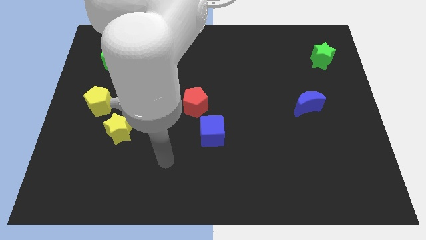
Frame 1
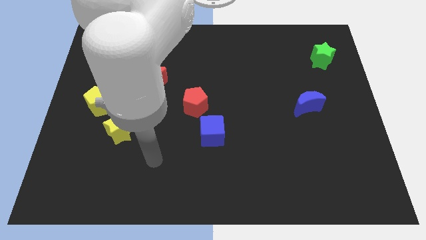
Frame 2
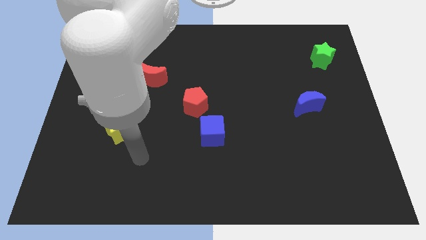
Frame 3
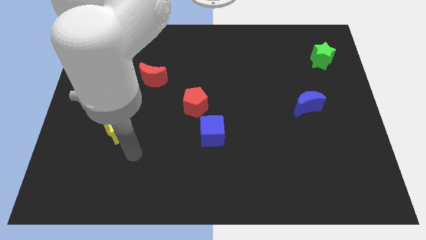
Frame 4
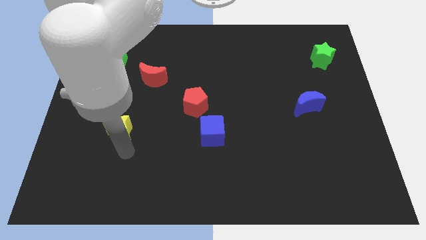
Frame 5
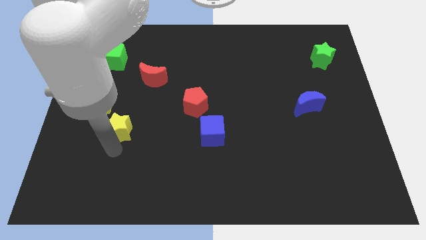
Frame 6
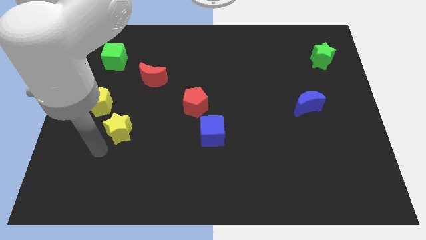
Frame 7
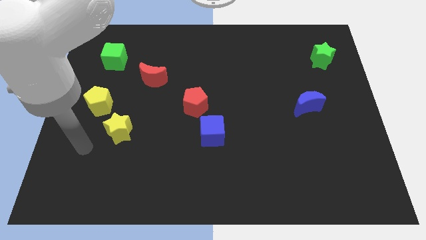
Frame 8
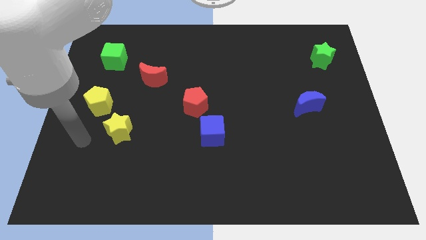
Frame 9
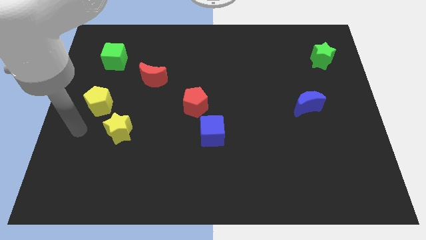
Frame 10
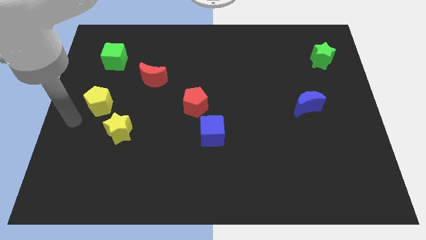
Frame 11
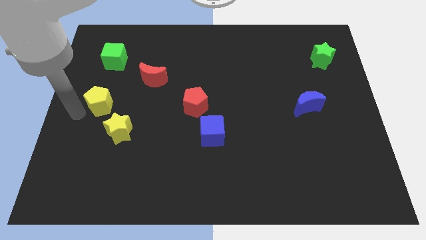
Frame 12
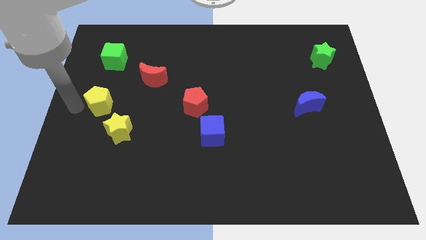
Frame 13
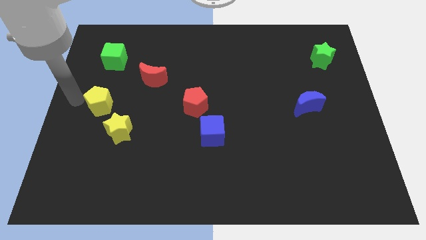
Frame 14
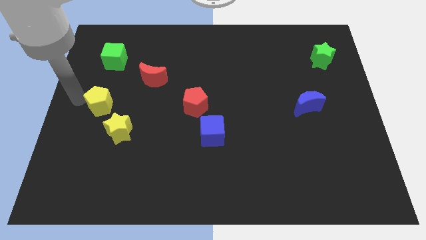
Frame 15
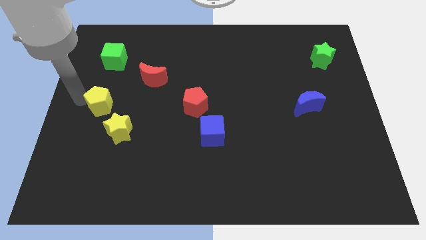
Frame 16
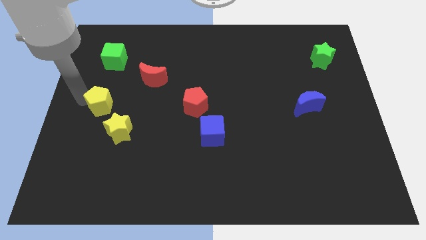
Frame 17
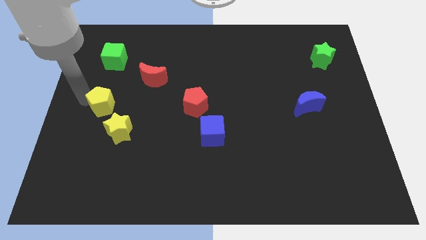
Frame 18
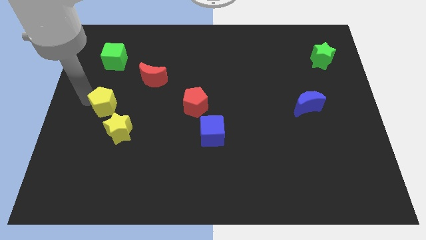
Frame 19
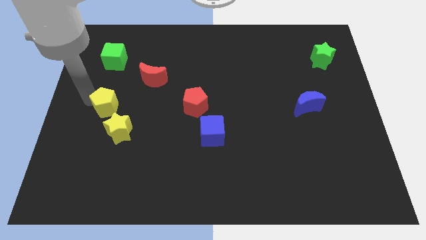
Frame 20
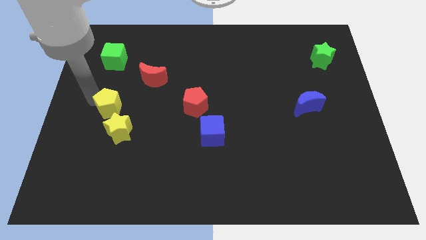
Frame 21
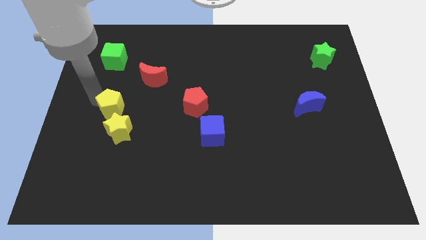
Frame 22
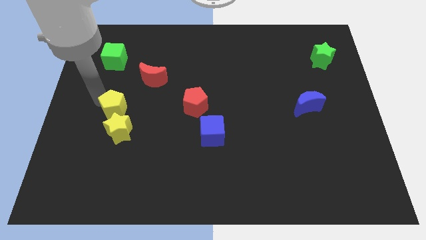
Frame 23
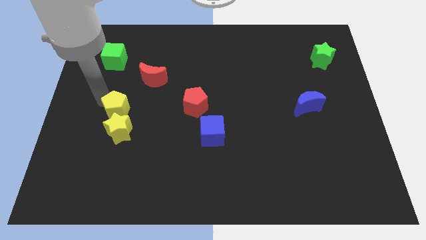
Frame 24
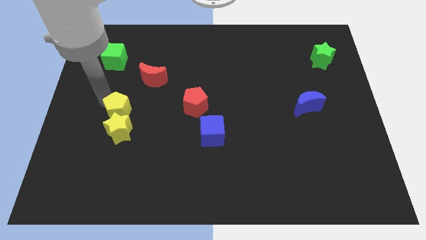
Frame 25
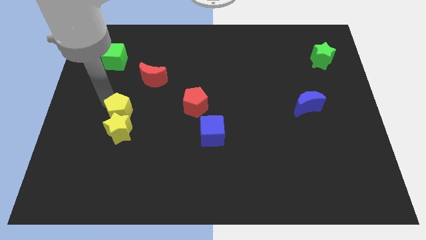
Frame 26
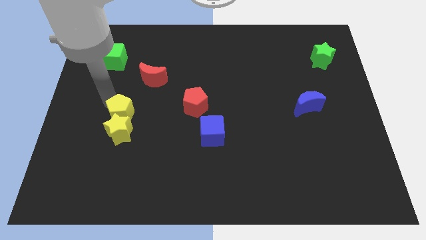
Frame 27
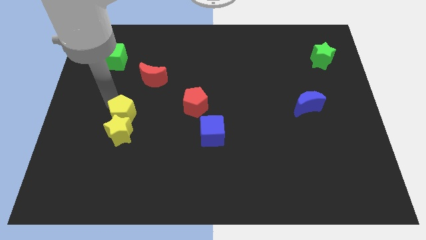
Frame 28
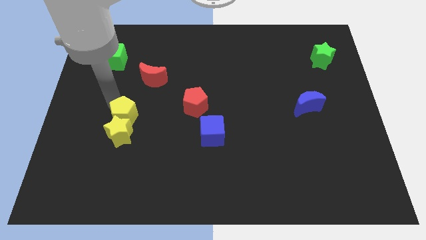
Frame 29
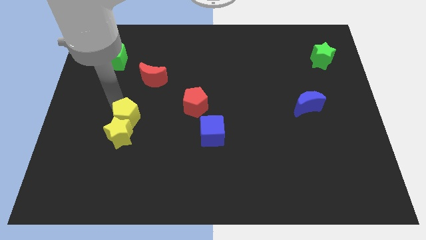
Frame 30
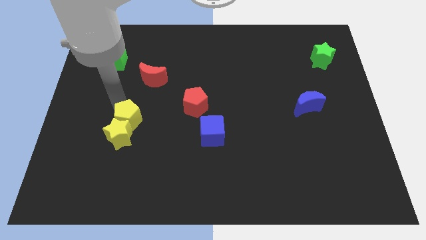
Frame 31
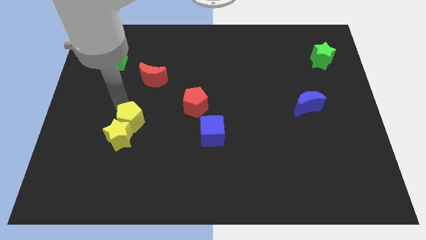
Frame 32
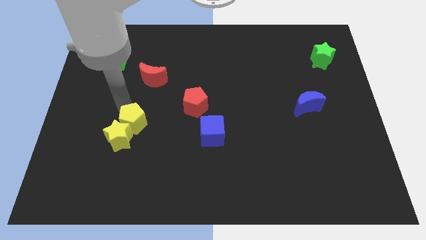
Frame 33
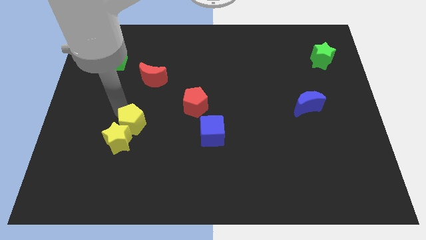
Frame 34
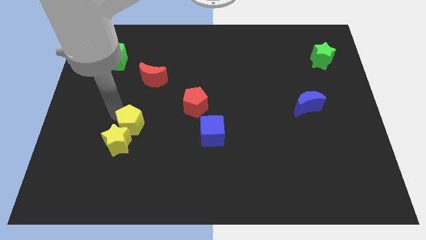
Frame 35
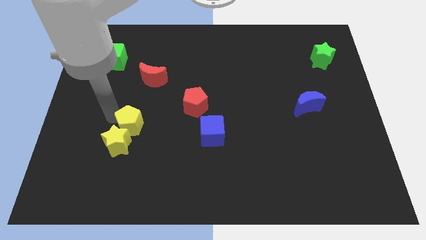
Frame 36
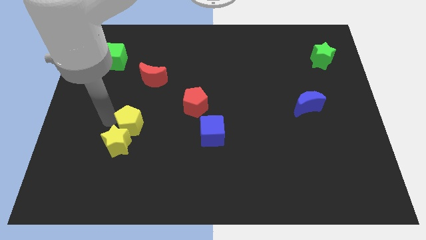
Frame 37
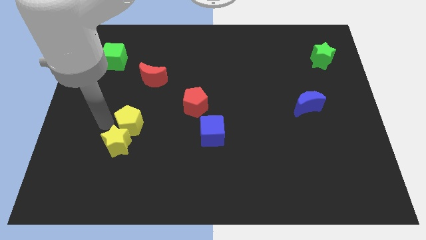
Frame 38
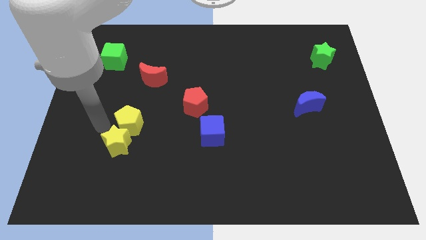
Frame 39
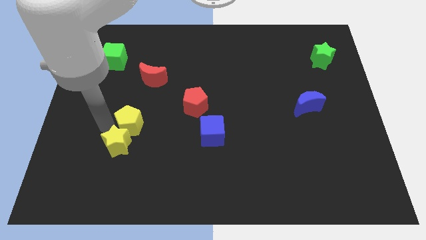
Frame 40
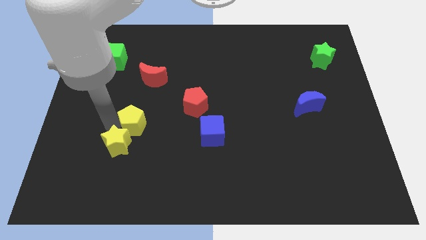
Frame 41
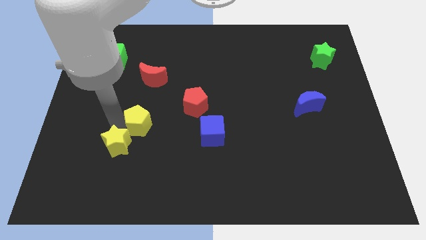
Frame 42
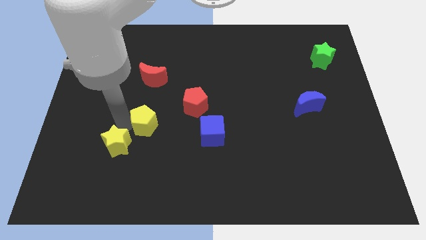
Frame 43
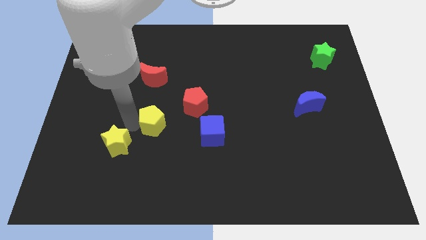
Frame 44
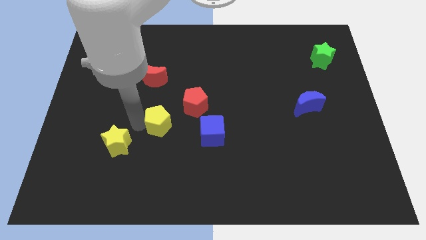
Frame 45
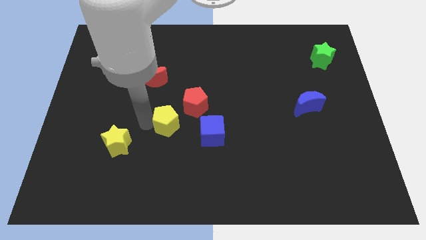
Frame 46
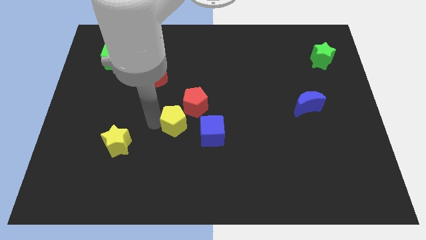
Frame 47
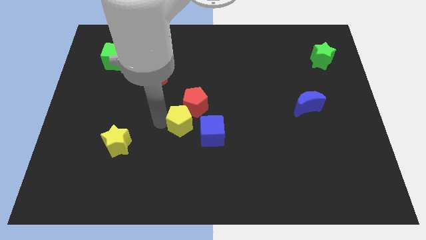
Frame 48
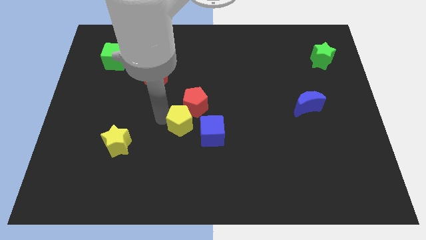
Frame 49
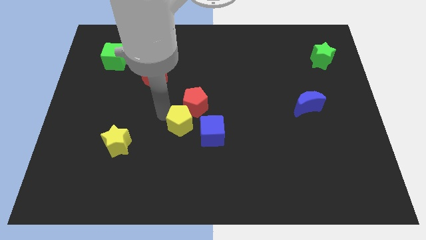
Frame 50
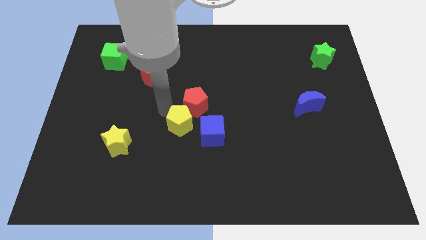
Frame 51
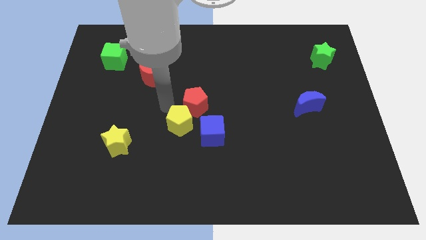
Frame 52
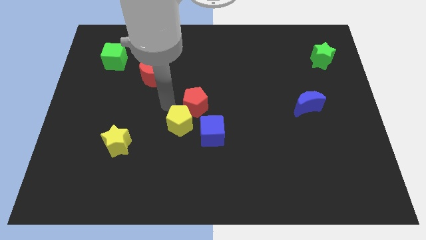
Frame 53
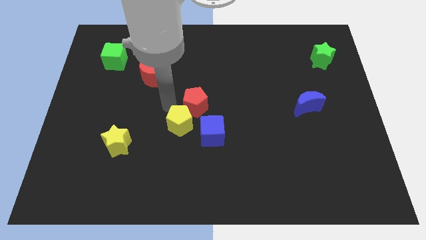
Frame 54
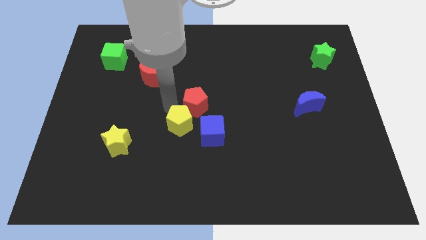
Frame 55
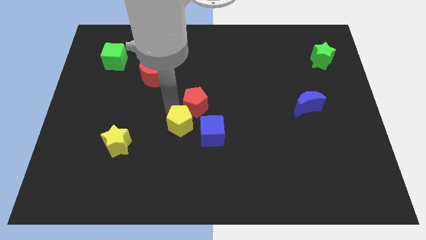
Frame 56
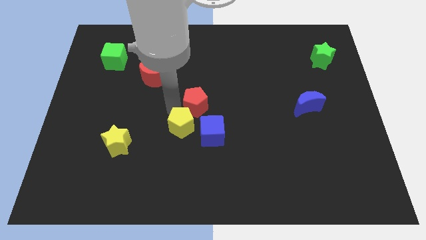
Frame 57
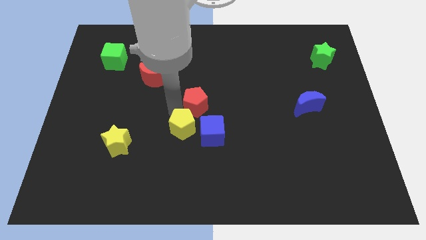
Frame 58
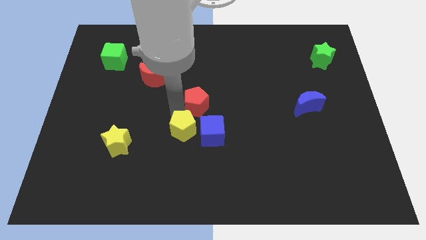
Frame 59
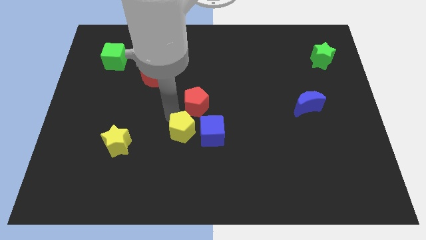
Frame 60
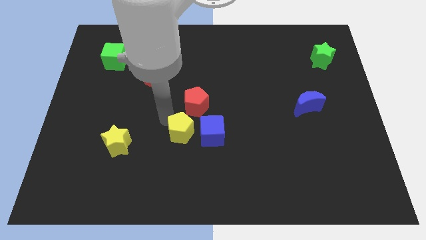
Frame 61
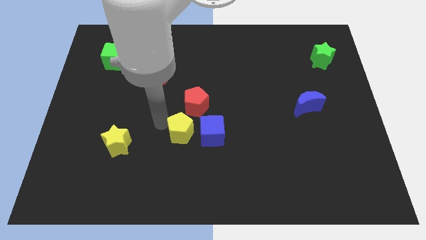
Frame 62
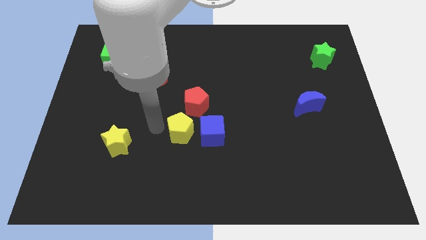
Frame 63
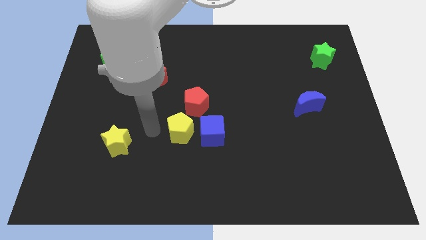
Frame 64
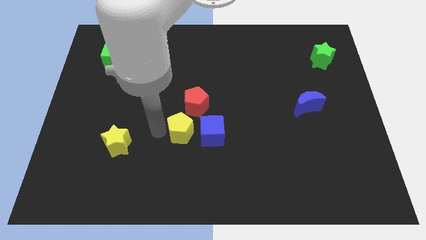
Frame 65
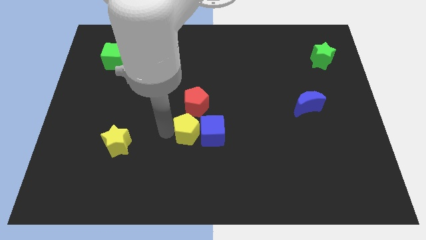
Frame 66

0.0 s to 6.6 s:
push the yellow pentagon next to the blue cube

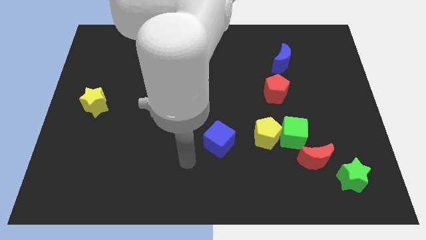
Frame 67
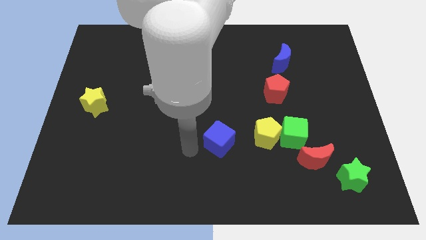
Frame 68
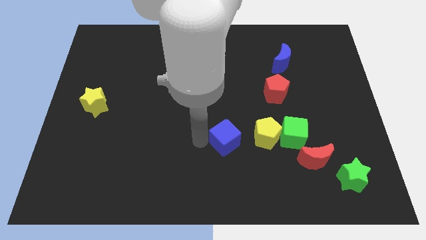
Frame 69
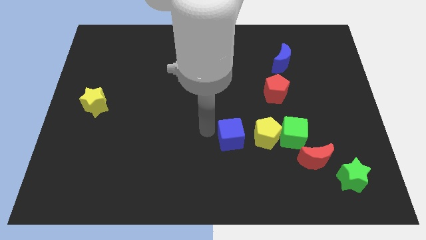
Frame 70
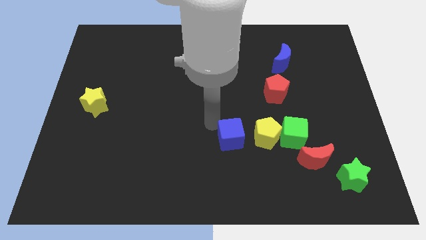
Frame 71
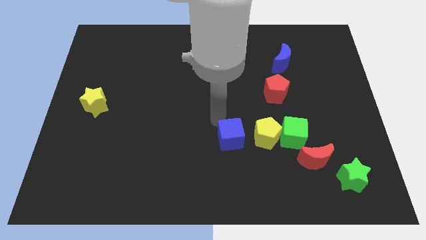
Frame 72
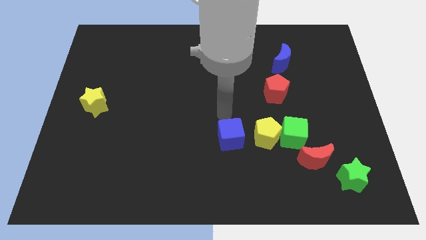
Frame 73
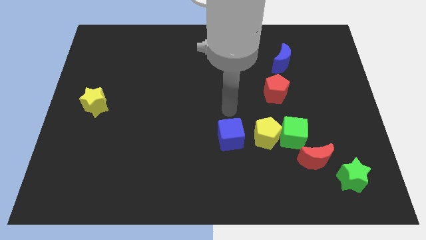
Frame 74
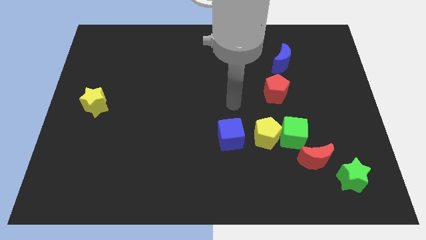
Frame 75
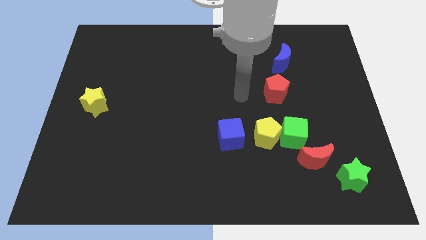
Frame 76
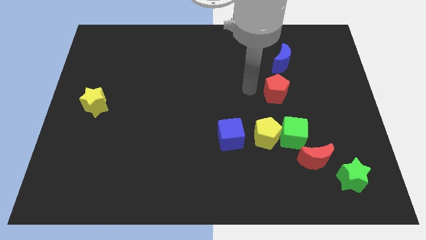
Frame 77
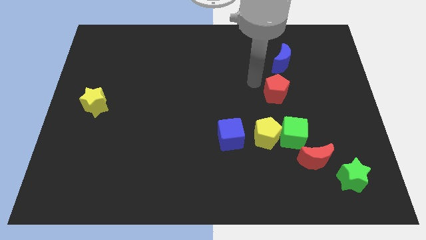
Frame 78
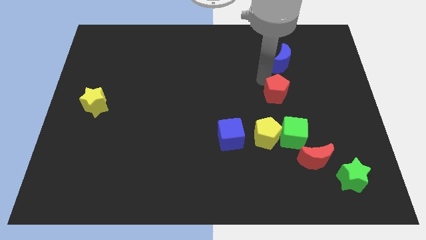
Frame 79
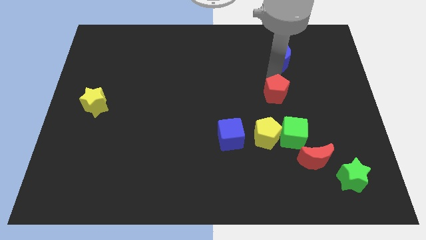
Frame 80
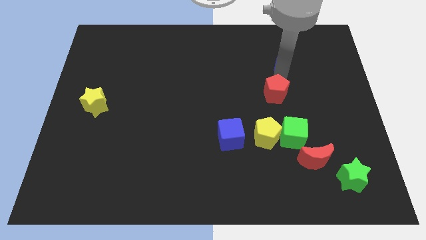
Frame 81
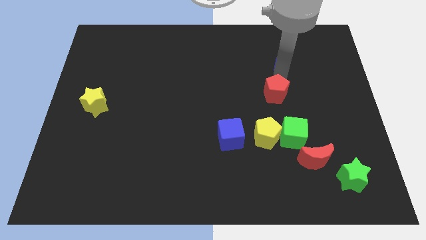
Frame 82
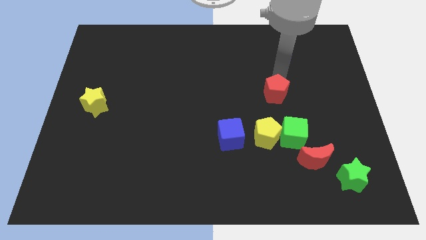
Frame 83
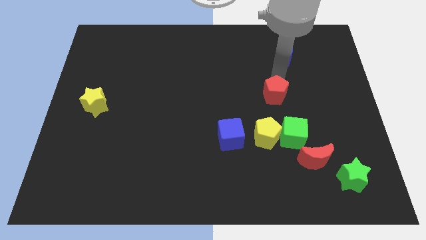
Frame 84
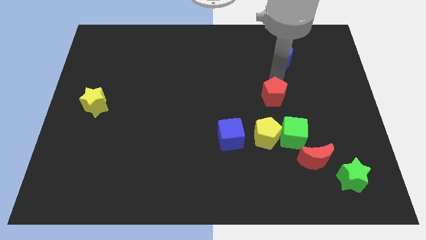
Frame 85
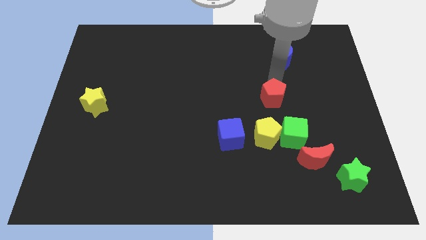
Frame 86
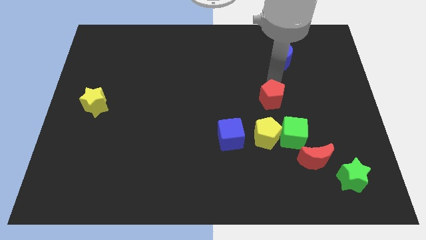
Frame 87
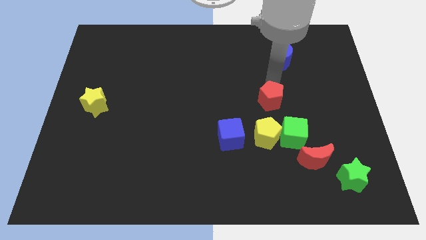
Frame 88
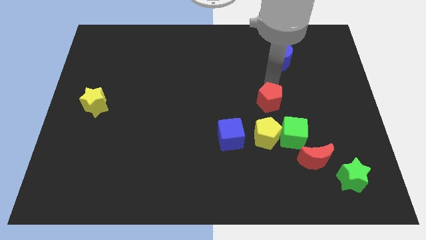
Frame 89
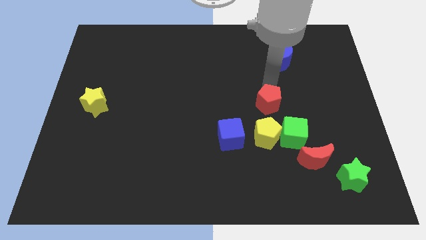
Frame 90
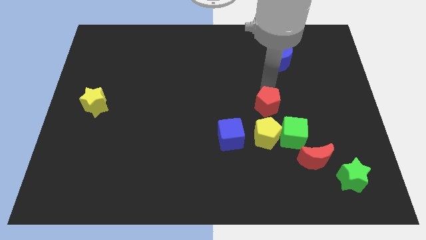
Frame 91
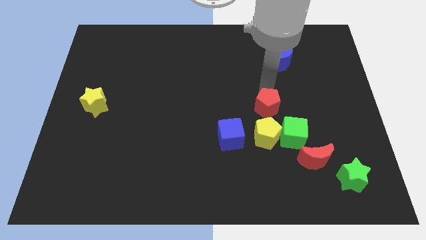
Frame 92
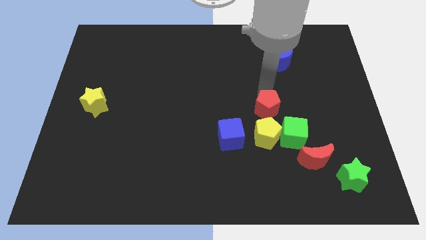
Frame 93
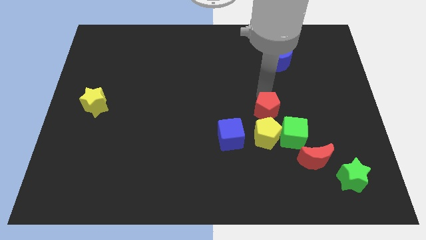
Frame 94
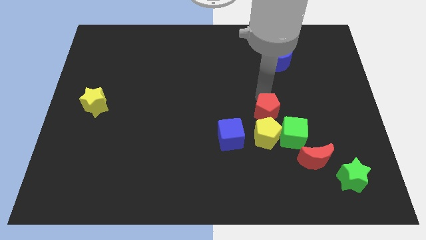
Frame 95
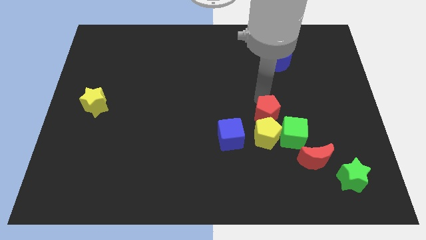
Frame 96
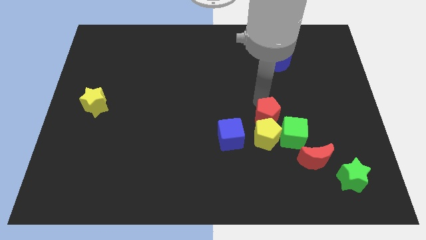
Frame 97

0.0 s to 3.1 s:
slide the red pentagon to the yellow pentagon
